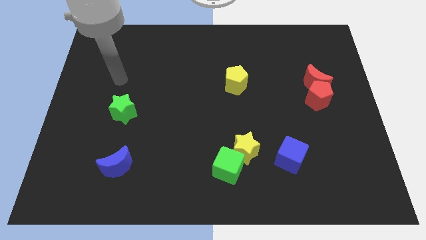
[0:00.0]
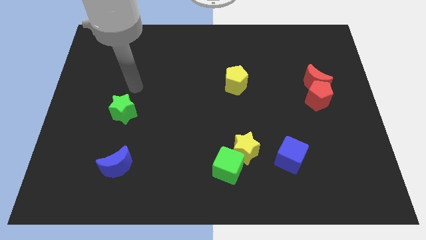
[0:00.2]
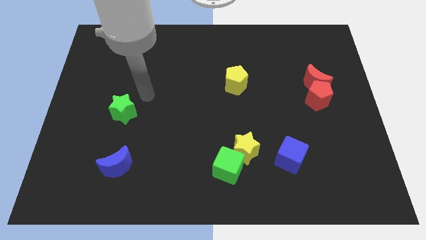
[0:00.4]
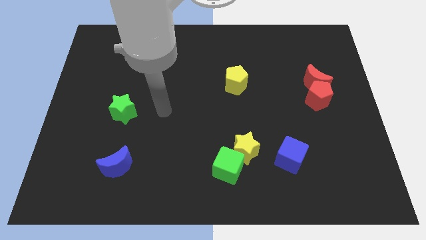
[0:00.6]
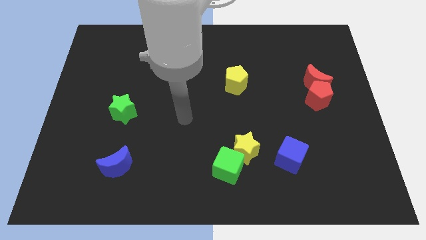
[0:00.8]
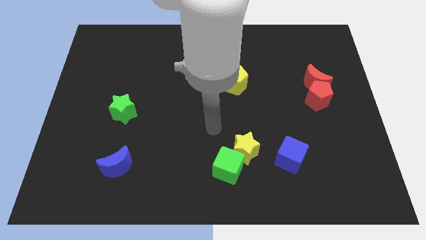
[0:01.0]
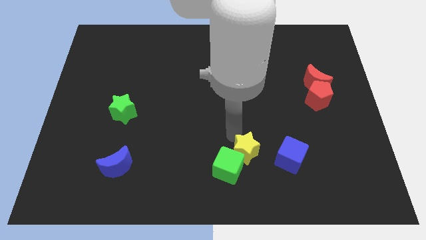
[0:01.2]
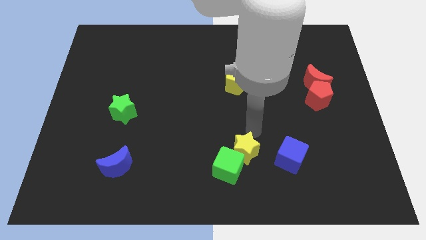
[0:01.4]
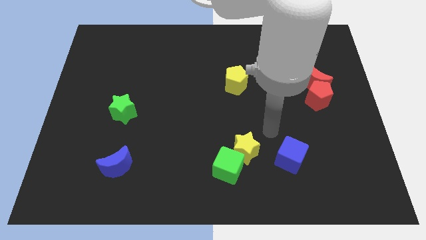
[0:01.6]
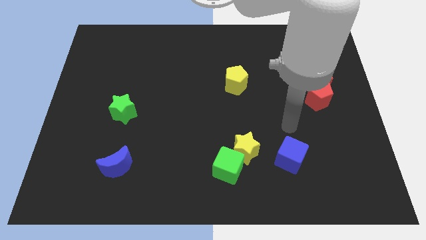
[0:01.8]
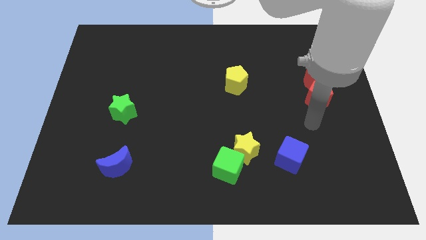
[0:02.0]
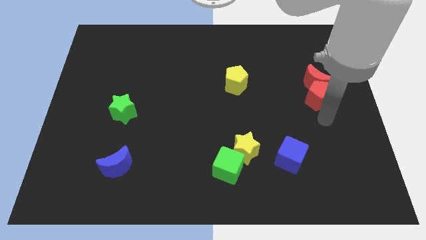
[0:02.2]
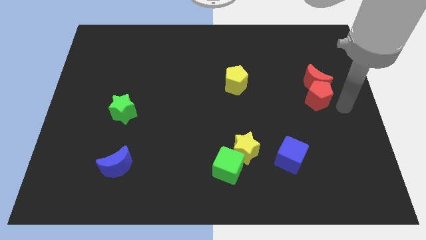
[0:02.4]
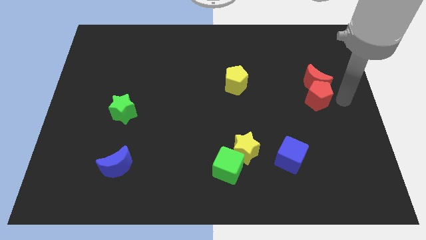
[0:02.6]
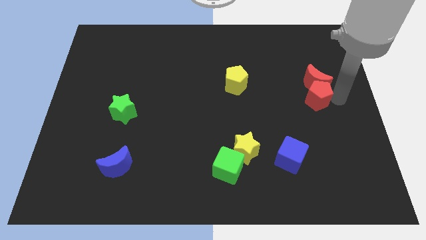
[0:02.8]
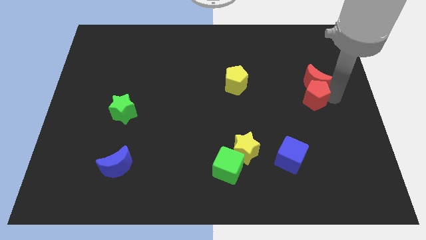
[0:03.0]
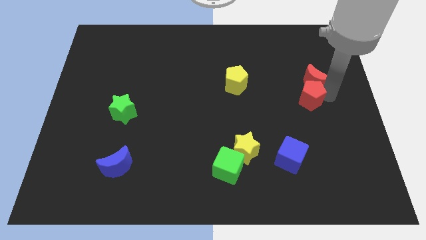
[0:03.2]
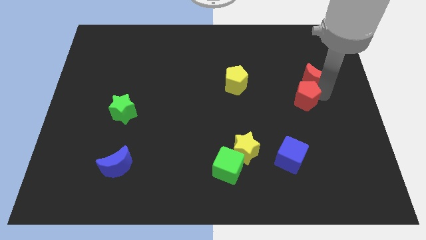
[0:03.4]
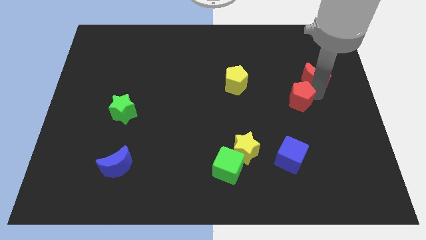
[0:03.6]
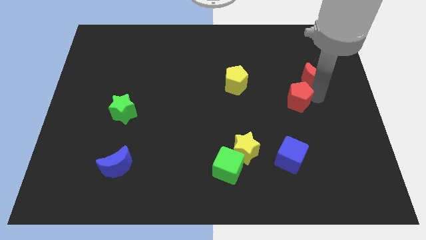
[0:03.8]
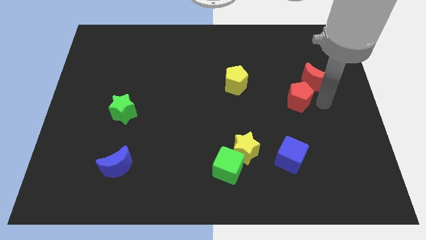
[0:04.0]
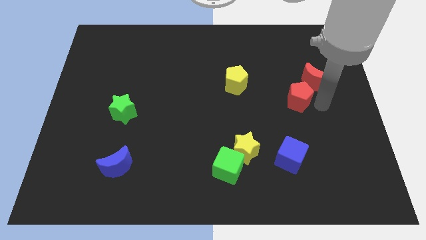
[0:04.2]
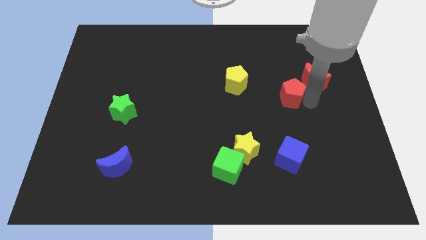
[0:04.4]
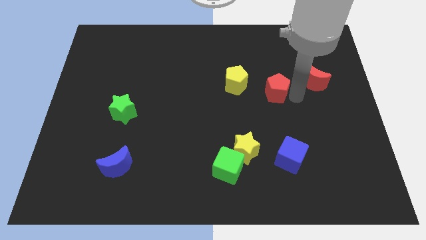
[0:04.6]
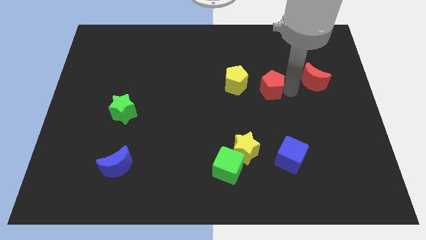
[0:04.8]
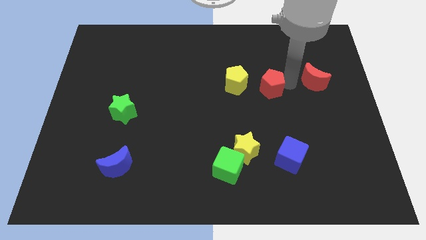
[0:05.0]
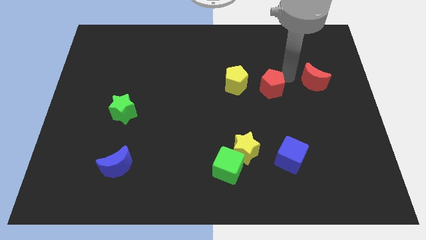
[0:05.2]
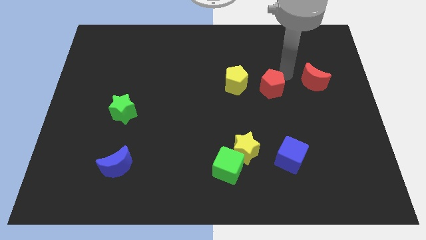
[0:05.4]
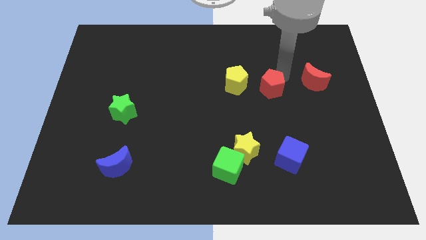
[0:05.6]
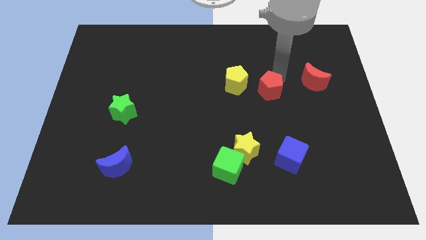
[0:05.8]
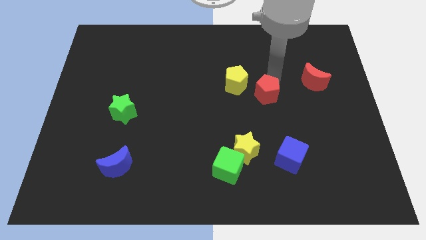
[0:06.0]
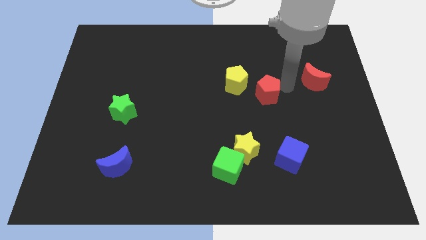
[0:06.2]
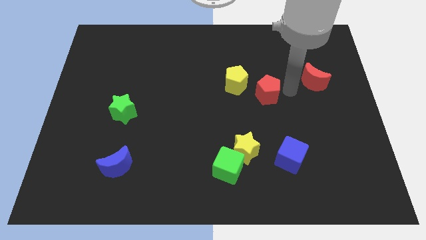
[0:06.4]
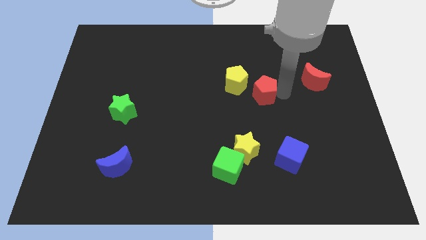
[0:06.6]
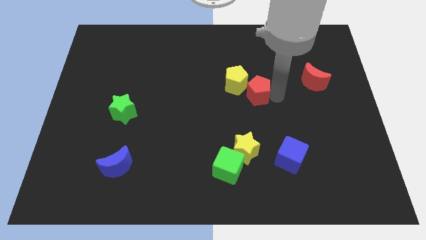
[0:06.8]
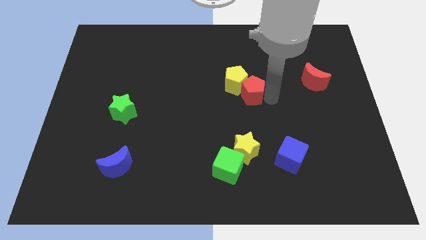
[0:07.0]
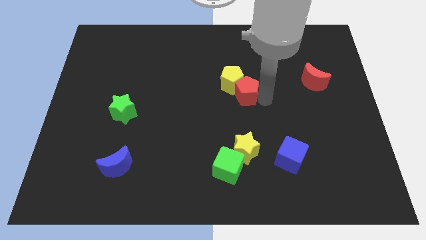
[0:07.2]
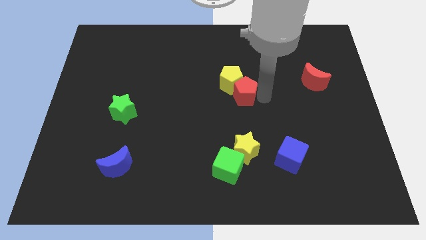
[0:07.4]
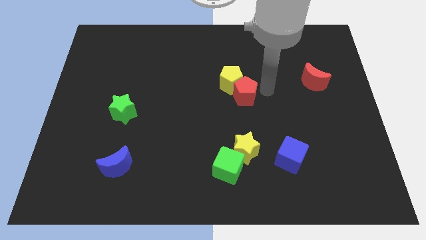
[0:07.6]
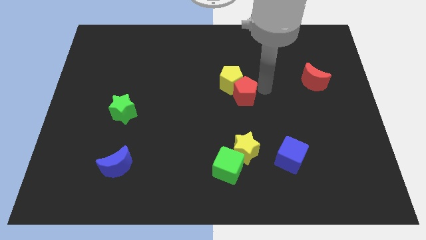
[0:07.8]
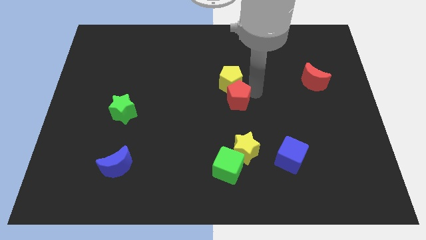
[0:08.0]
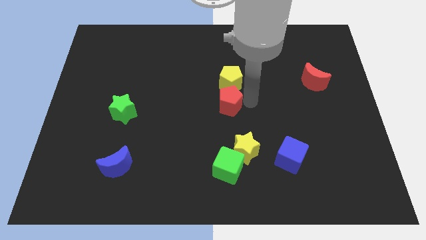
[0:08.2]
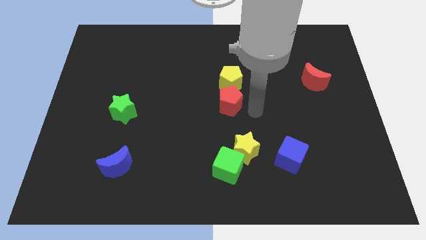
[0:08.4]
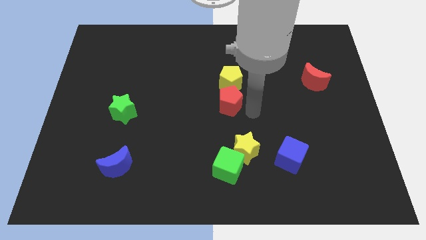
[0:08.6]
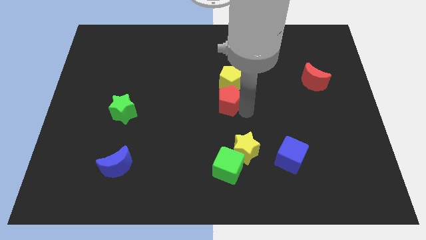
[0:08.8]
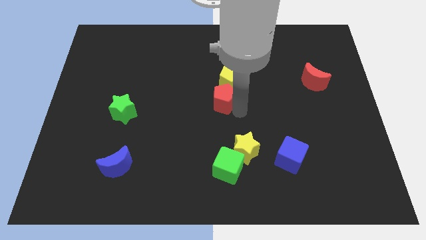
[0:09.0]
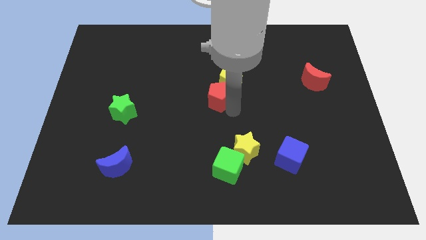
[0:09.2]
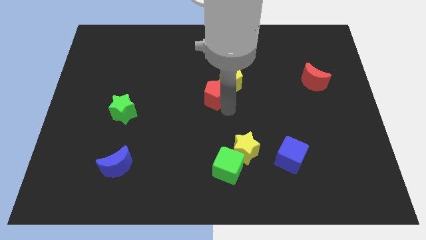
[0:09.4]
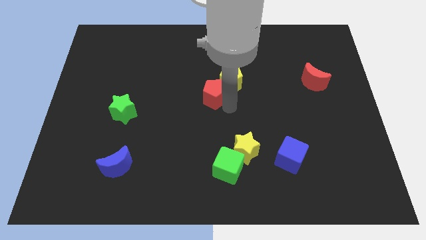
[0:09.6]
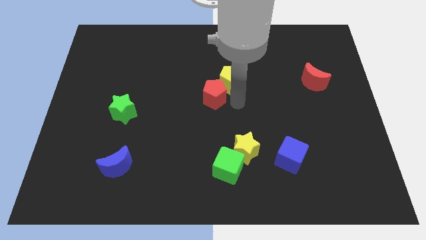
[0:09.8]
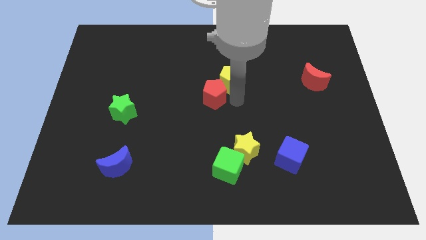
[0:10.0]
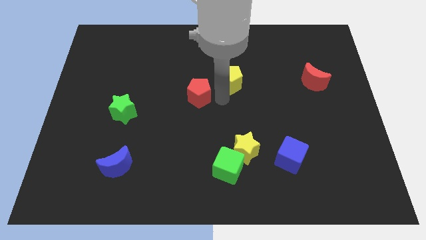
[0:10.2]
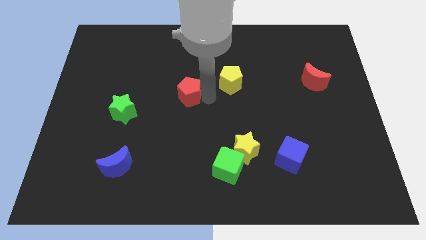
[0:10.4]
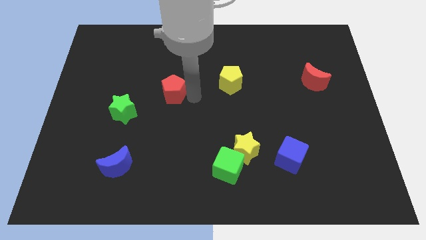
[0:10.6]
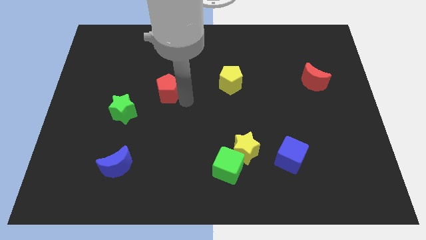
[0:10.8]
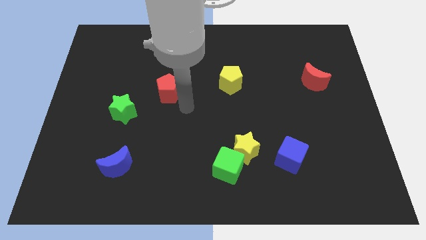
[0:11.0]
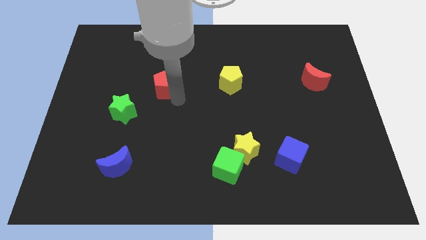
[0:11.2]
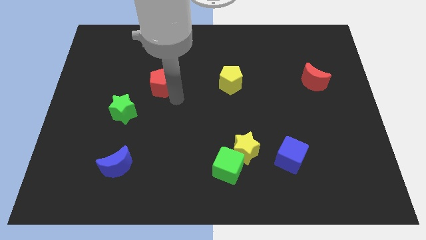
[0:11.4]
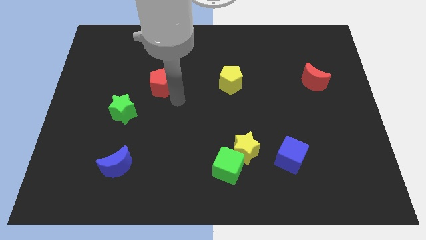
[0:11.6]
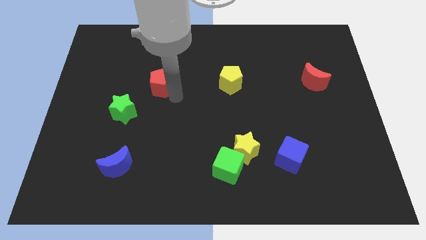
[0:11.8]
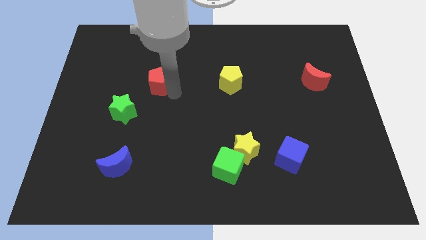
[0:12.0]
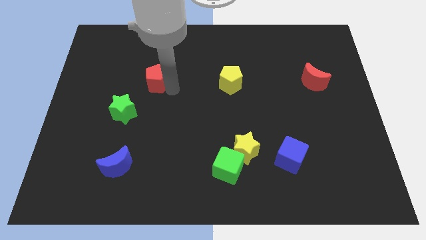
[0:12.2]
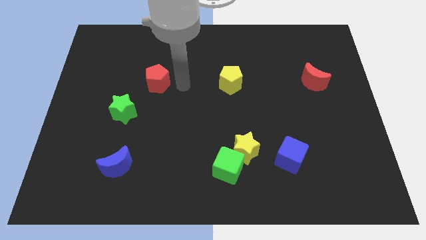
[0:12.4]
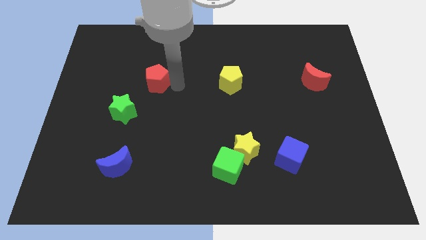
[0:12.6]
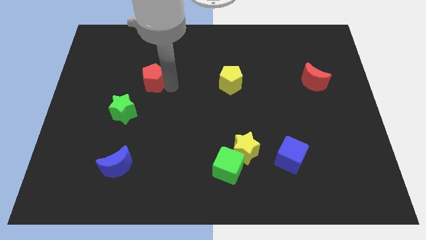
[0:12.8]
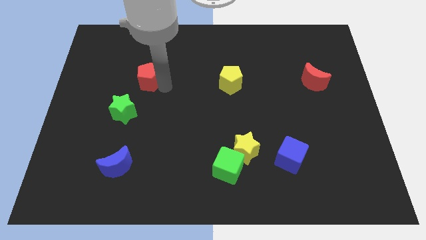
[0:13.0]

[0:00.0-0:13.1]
move the red pentagon above the green star
